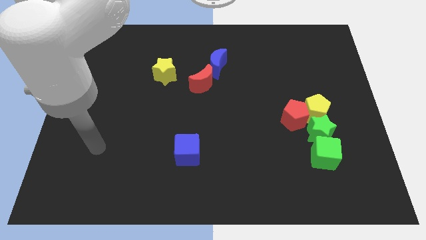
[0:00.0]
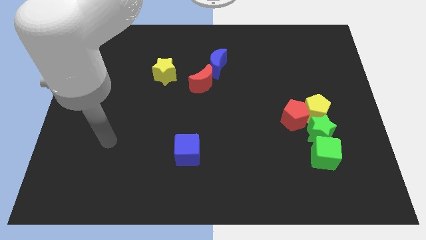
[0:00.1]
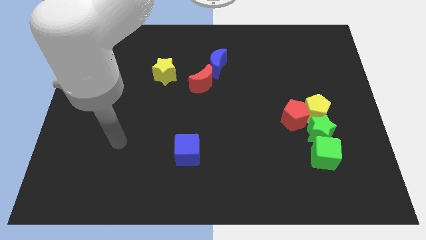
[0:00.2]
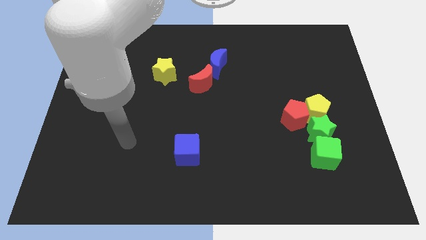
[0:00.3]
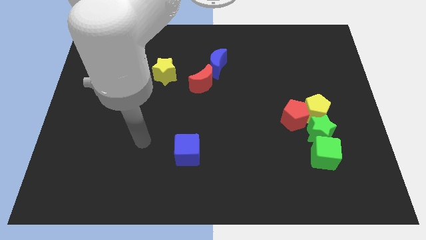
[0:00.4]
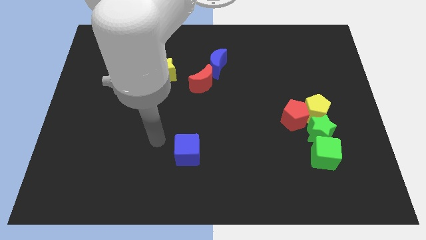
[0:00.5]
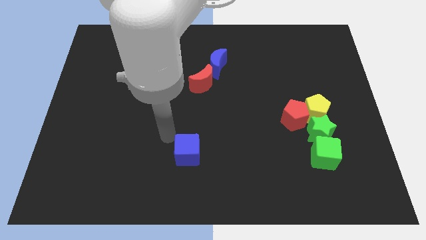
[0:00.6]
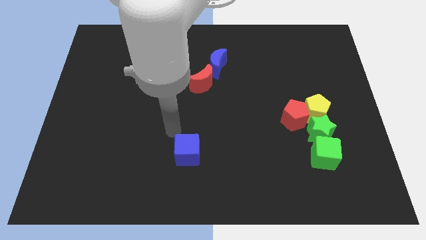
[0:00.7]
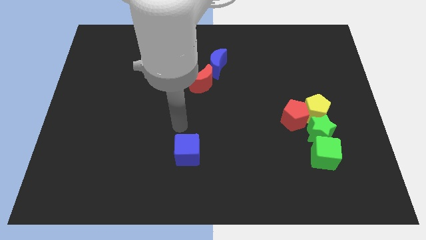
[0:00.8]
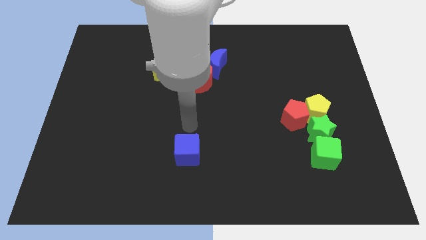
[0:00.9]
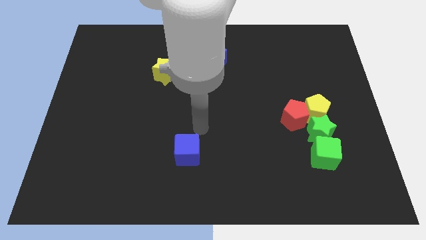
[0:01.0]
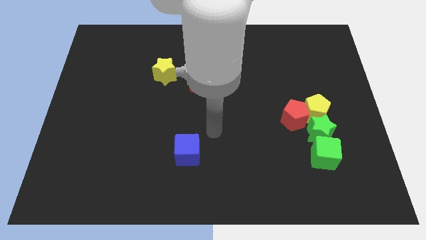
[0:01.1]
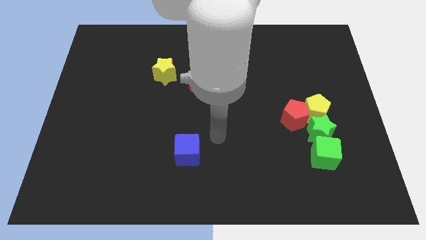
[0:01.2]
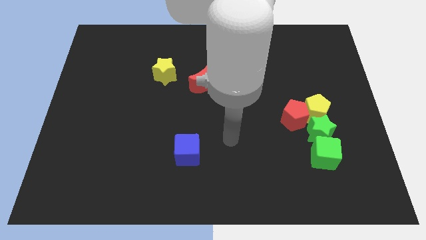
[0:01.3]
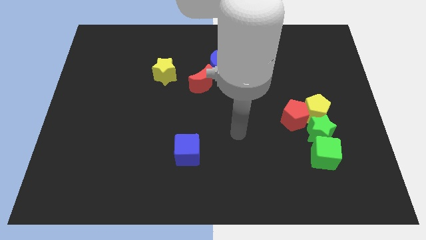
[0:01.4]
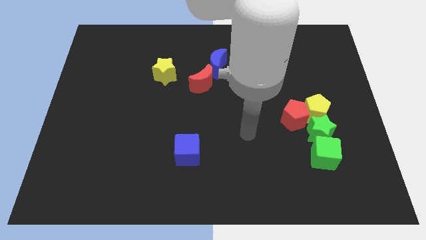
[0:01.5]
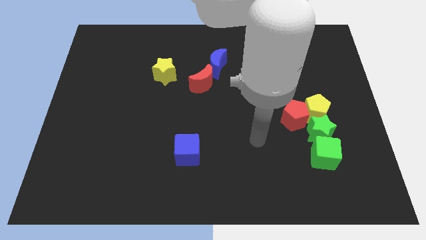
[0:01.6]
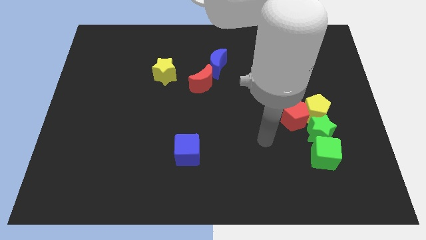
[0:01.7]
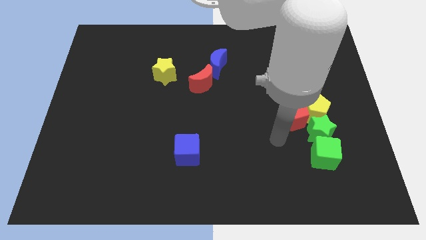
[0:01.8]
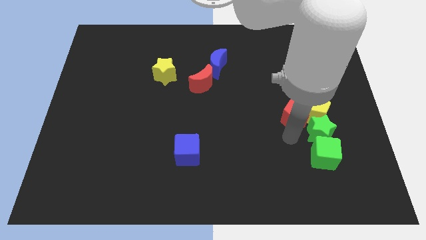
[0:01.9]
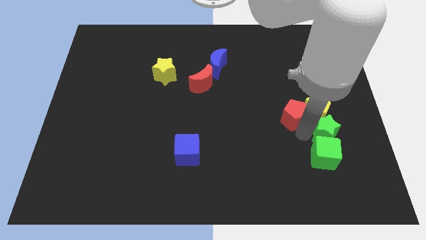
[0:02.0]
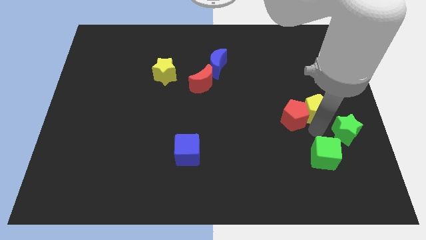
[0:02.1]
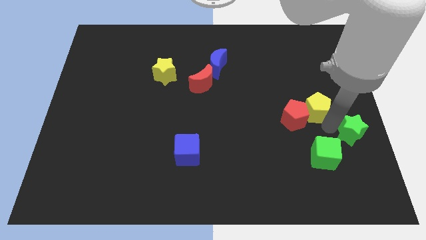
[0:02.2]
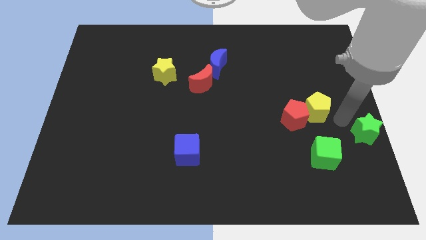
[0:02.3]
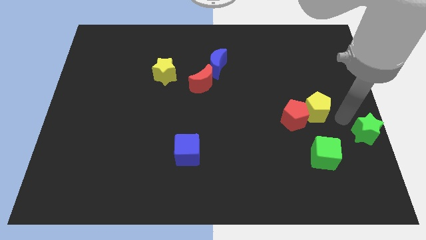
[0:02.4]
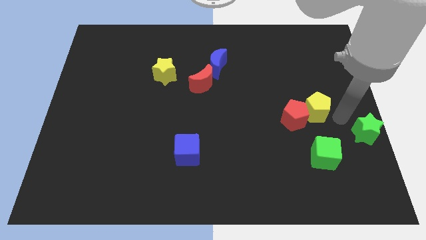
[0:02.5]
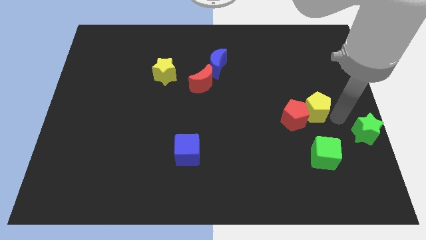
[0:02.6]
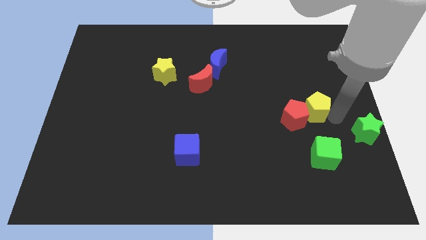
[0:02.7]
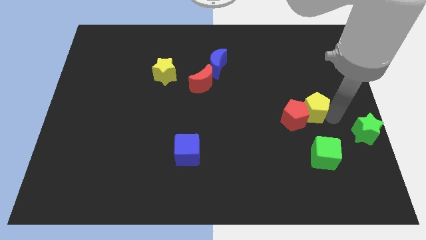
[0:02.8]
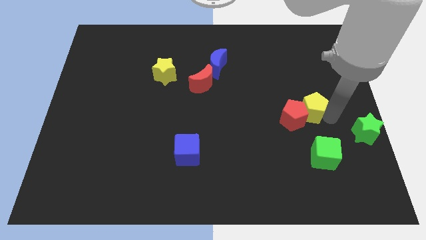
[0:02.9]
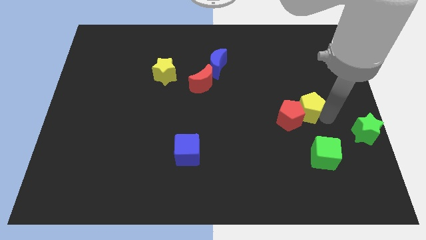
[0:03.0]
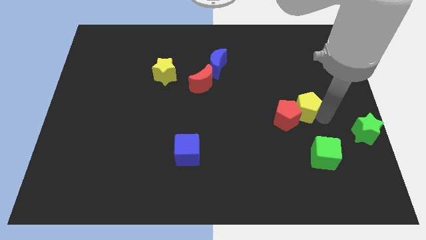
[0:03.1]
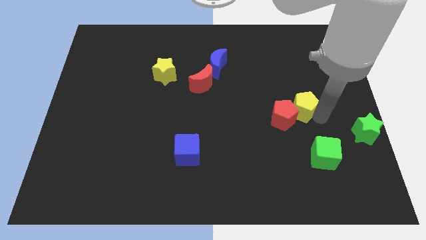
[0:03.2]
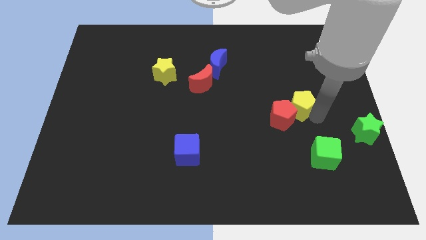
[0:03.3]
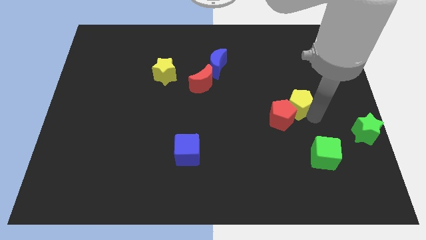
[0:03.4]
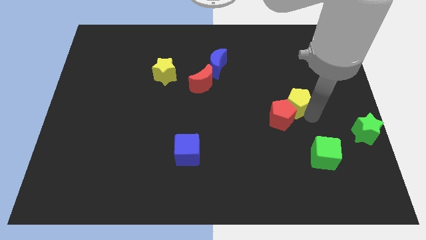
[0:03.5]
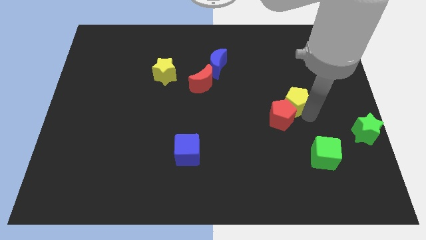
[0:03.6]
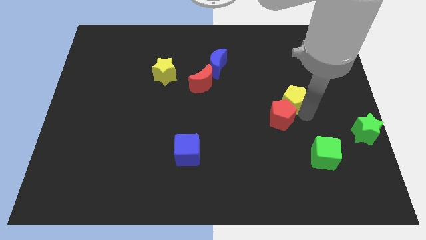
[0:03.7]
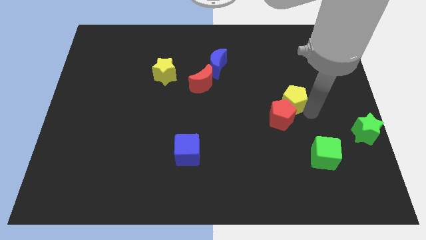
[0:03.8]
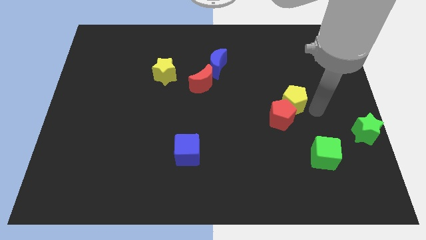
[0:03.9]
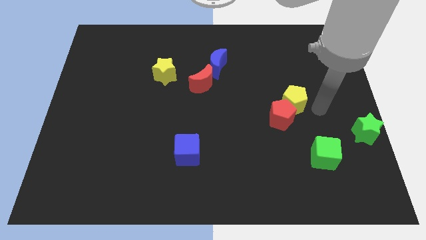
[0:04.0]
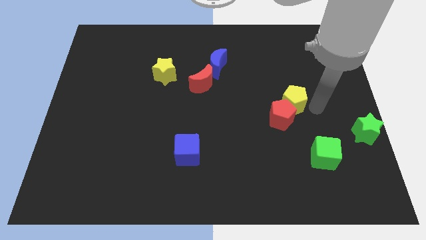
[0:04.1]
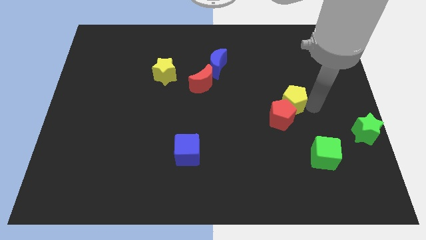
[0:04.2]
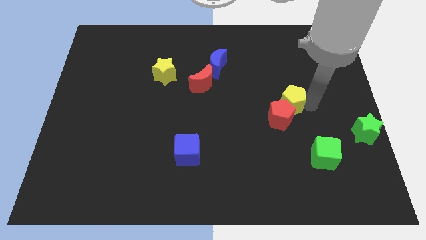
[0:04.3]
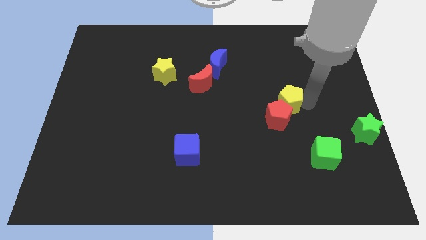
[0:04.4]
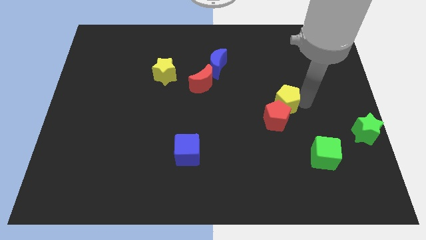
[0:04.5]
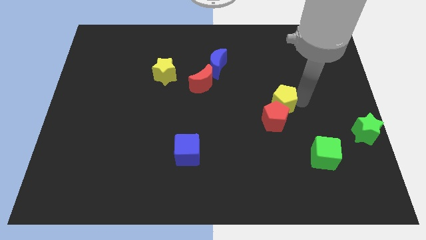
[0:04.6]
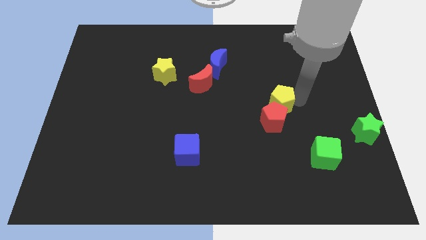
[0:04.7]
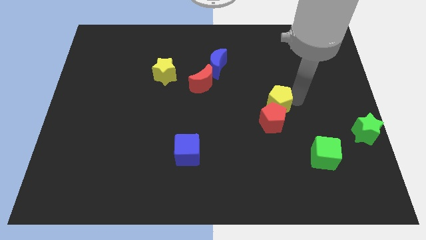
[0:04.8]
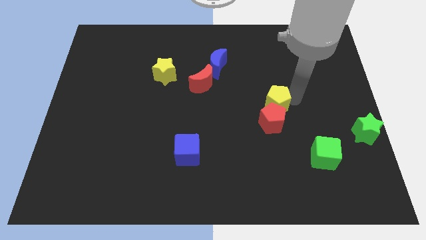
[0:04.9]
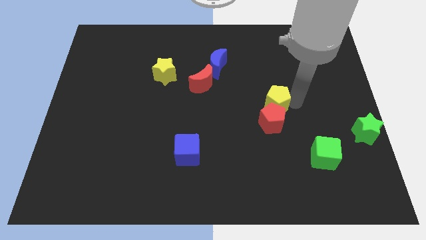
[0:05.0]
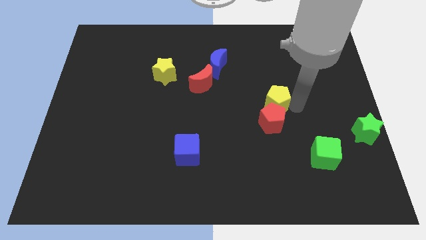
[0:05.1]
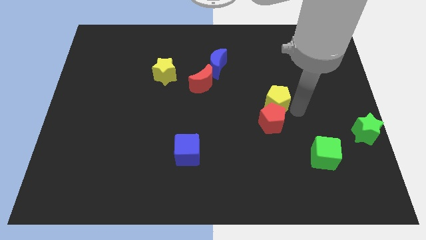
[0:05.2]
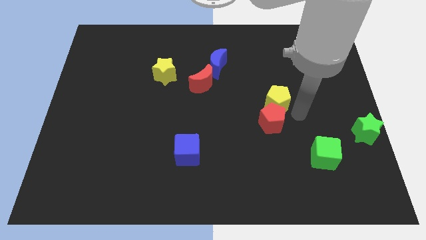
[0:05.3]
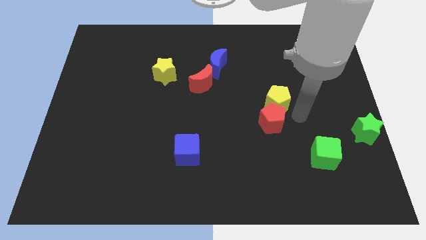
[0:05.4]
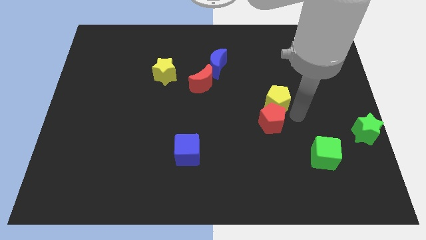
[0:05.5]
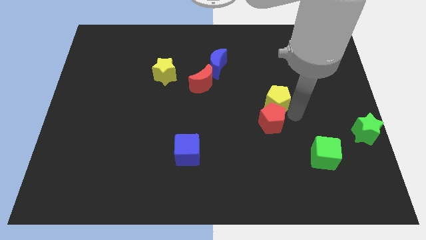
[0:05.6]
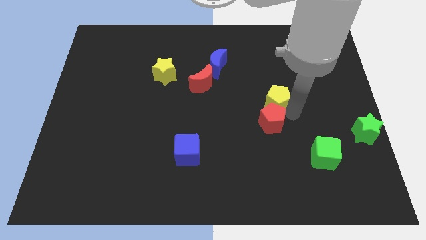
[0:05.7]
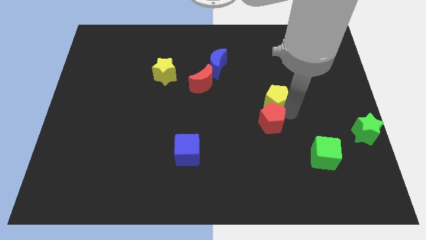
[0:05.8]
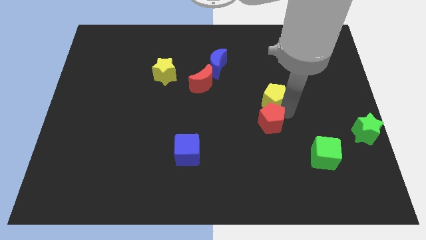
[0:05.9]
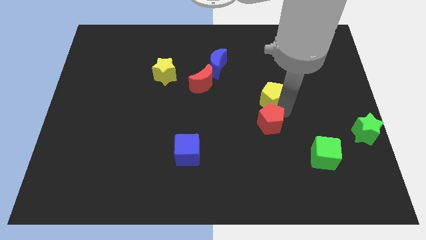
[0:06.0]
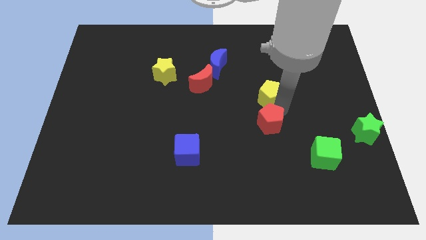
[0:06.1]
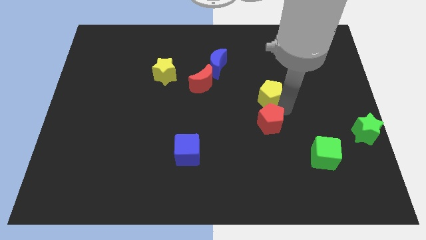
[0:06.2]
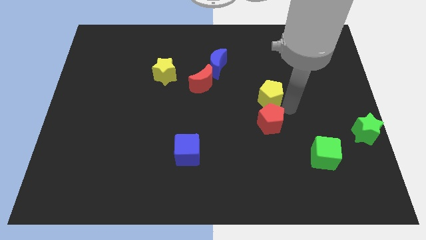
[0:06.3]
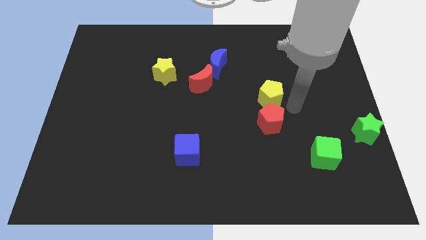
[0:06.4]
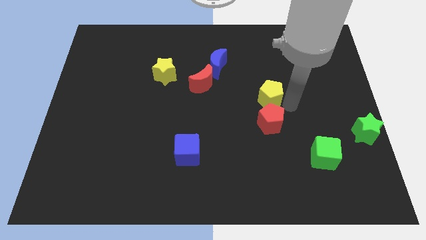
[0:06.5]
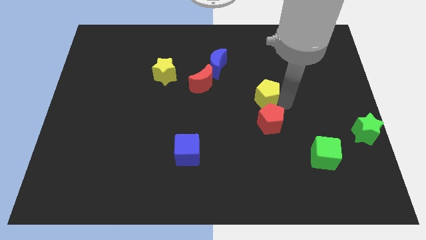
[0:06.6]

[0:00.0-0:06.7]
push the yellow pentagon to the middle of the board

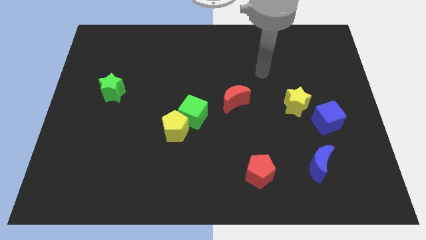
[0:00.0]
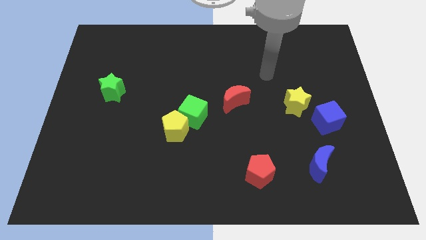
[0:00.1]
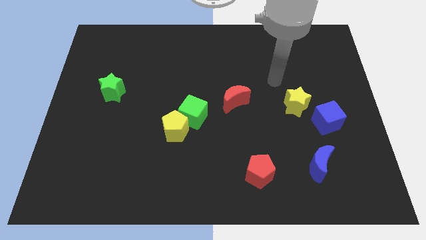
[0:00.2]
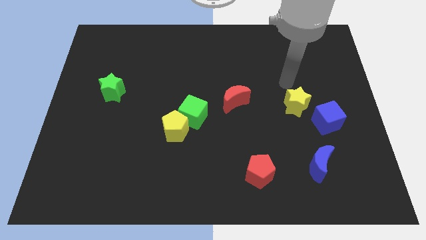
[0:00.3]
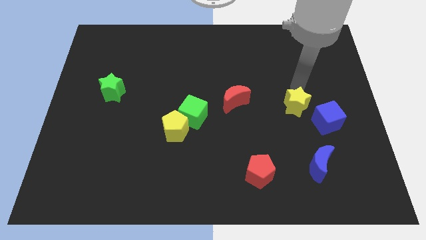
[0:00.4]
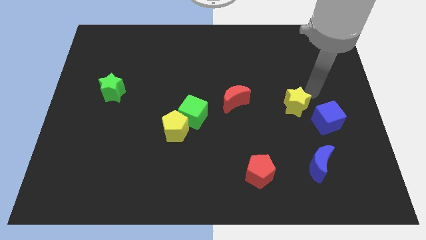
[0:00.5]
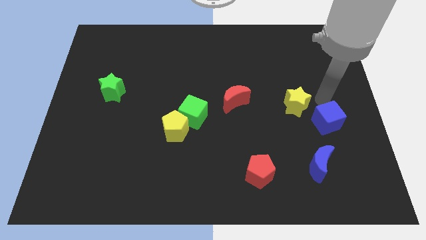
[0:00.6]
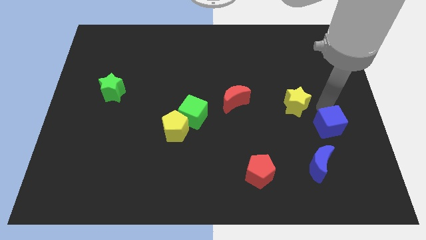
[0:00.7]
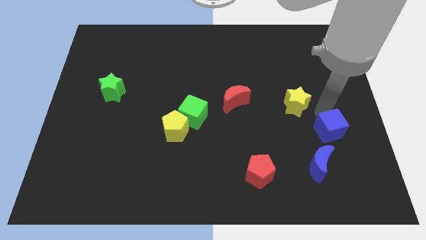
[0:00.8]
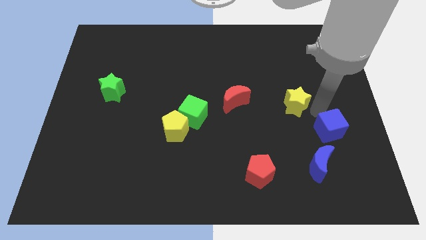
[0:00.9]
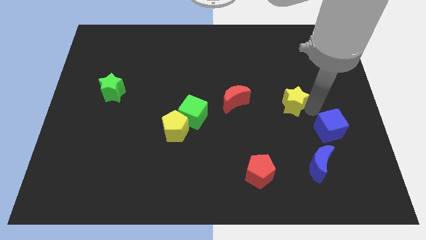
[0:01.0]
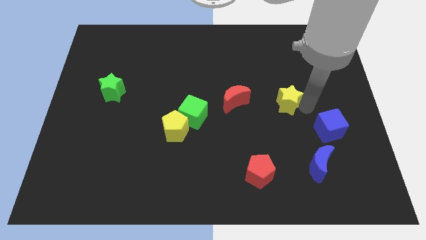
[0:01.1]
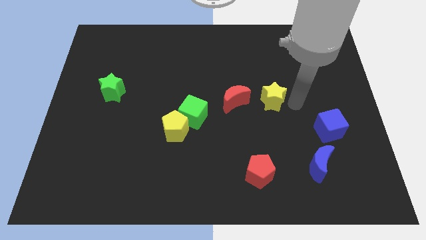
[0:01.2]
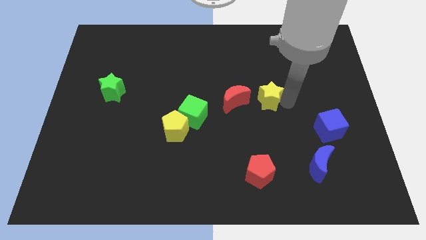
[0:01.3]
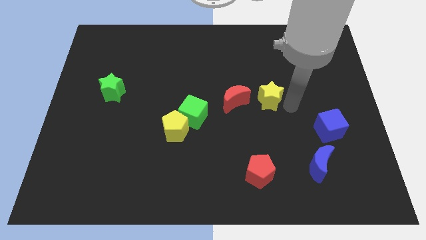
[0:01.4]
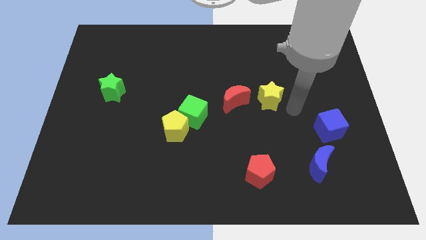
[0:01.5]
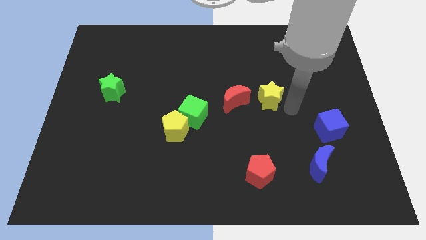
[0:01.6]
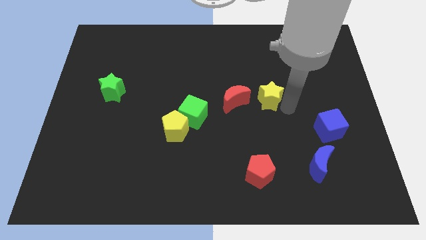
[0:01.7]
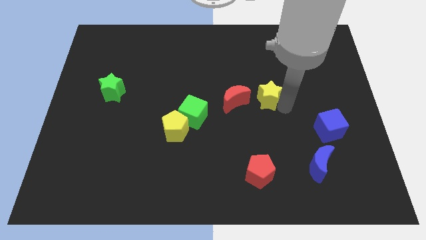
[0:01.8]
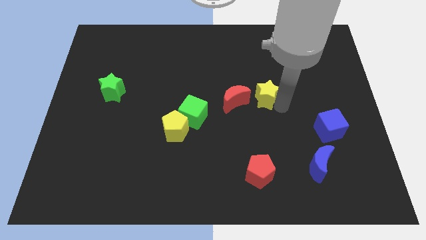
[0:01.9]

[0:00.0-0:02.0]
put the yellow star to the middle of the board
